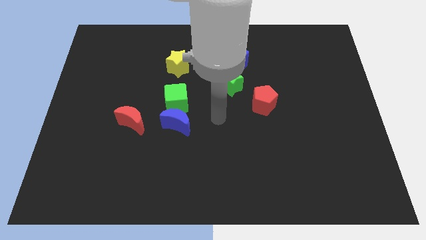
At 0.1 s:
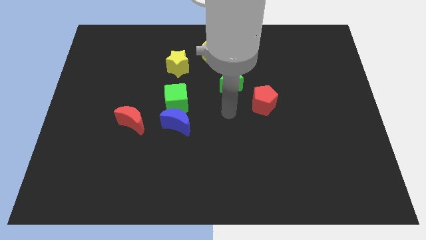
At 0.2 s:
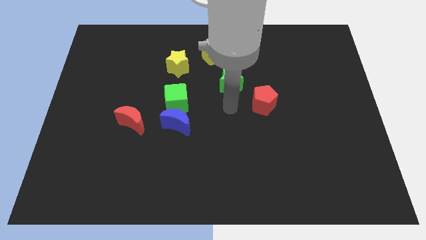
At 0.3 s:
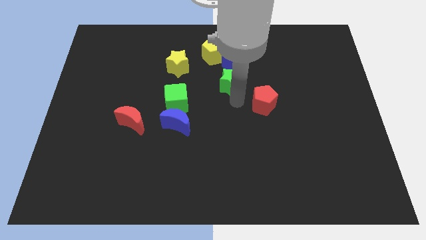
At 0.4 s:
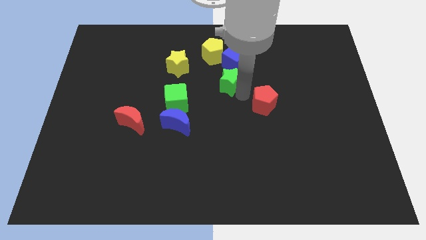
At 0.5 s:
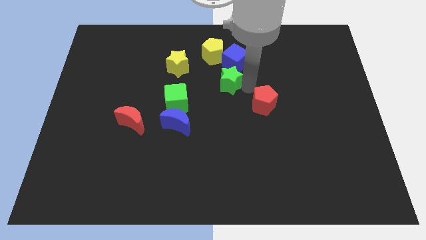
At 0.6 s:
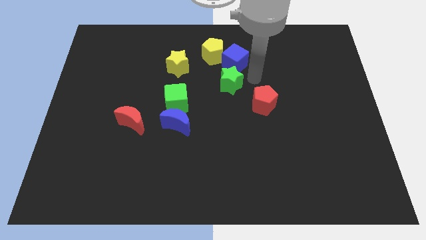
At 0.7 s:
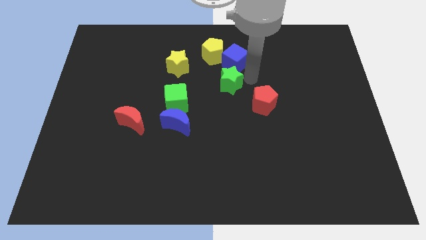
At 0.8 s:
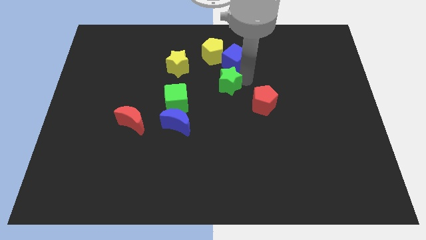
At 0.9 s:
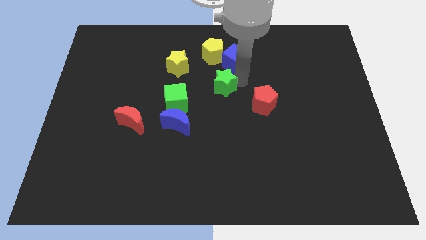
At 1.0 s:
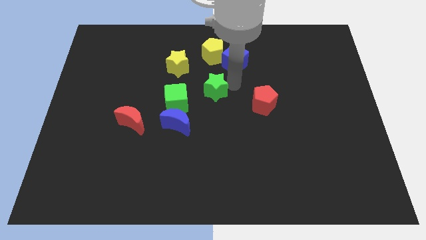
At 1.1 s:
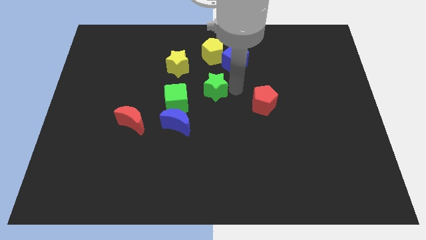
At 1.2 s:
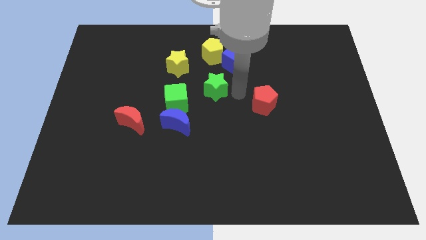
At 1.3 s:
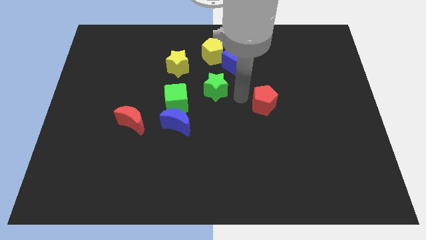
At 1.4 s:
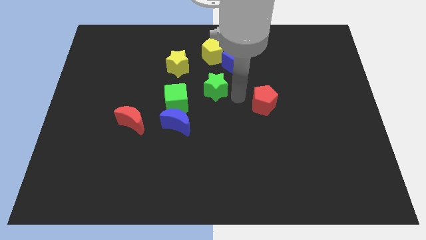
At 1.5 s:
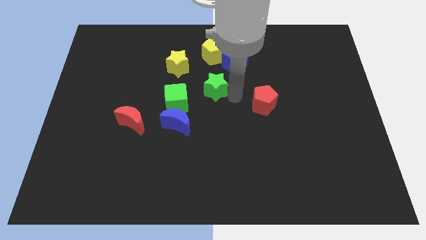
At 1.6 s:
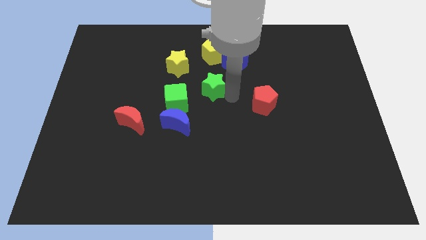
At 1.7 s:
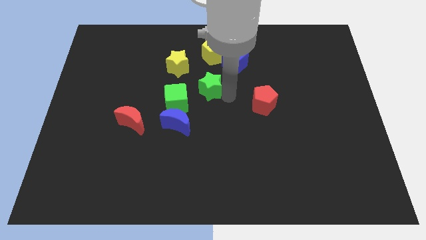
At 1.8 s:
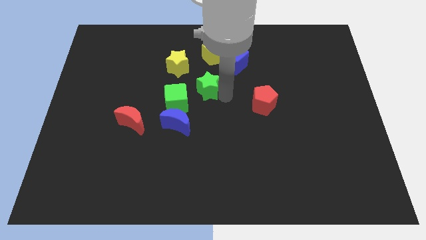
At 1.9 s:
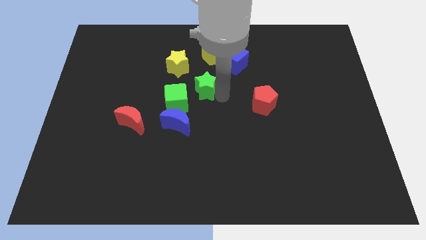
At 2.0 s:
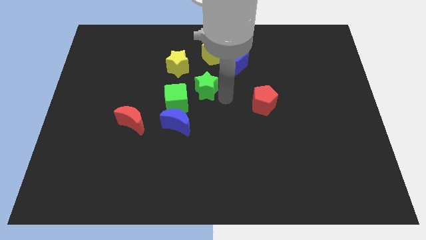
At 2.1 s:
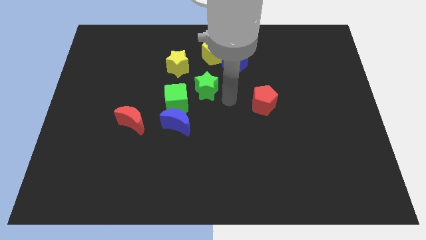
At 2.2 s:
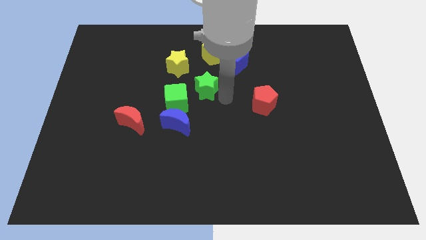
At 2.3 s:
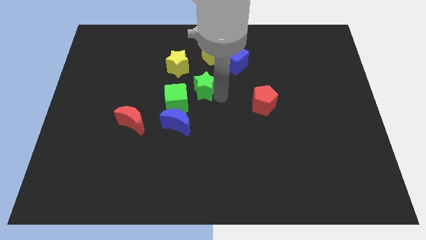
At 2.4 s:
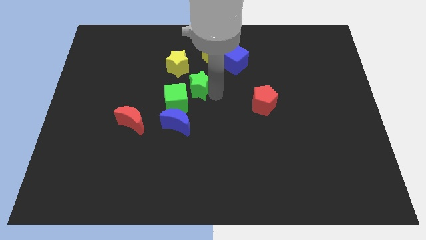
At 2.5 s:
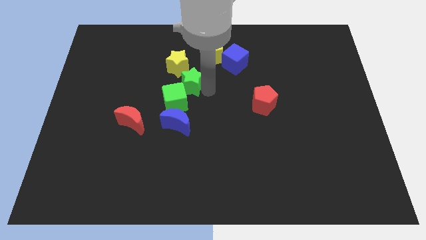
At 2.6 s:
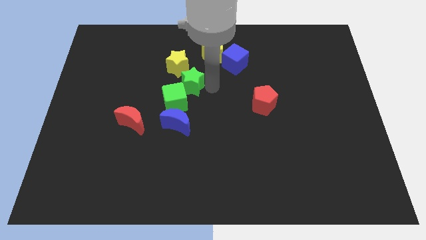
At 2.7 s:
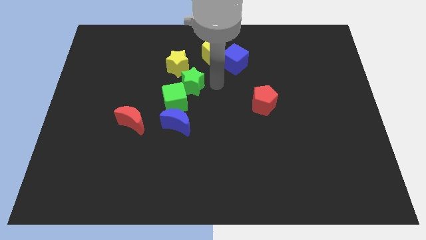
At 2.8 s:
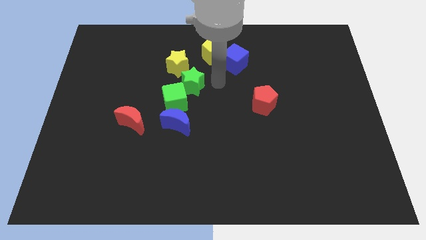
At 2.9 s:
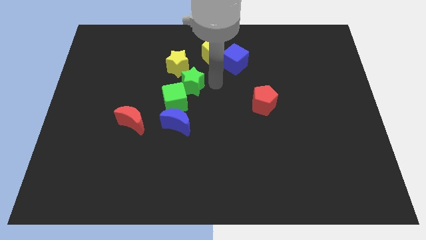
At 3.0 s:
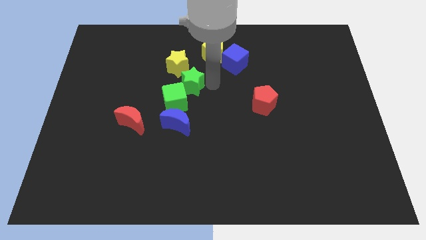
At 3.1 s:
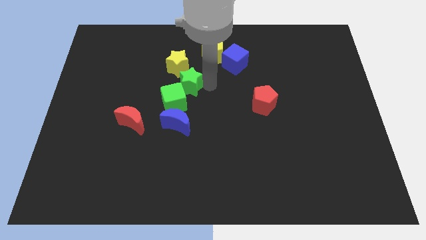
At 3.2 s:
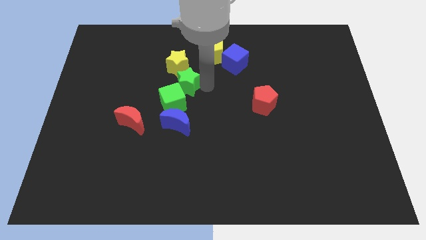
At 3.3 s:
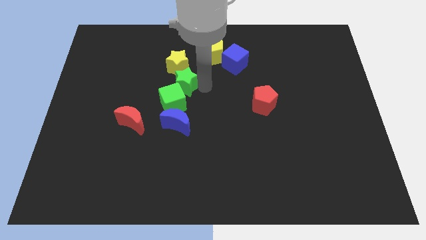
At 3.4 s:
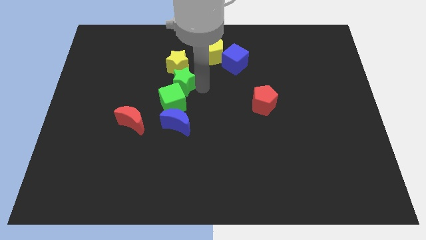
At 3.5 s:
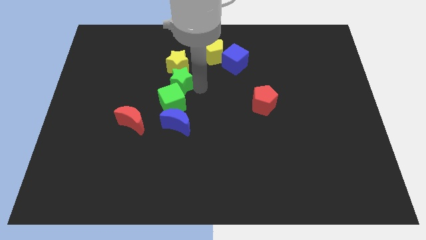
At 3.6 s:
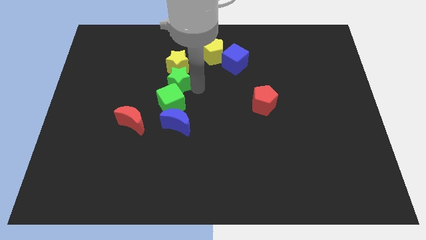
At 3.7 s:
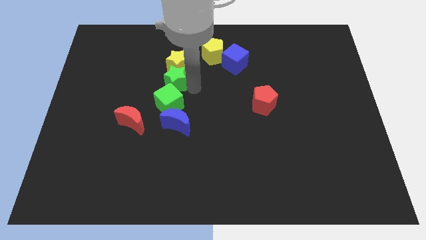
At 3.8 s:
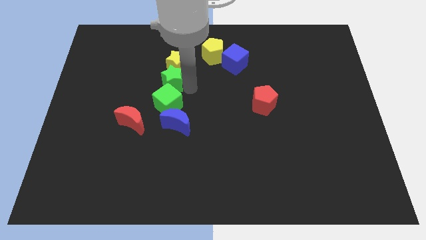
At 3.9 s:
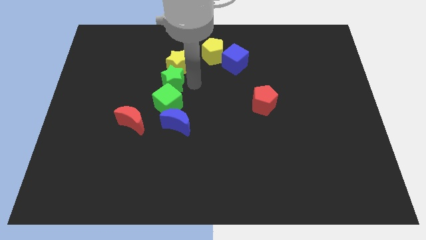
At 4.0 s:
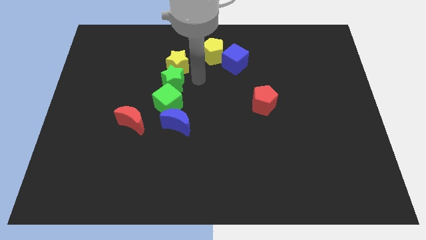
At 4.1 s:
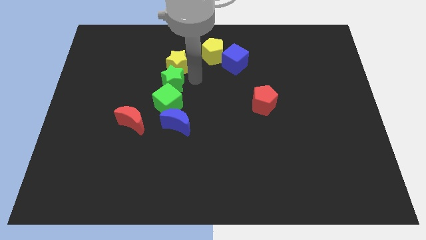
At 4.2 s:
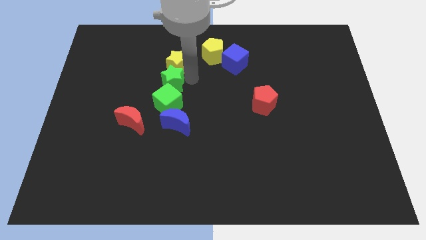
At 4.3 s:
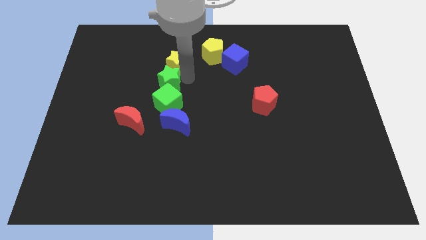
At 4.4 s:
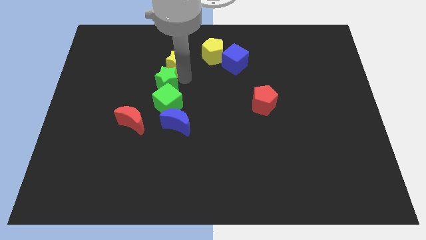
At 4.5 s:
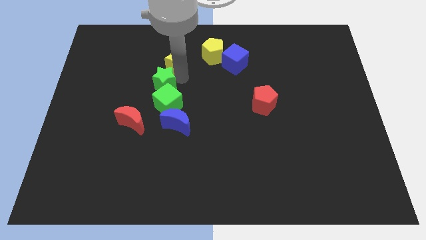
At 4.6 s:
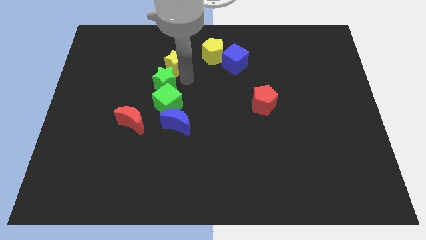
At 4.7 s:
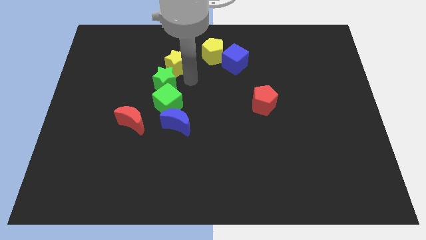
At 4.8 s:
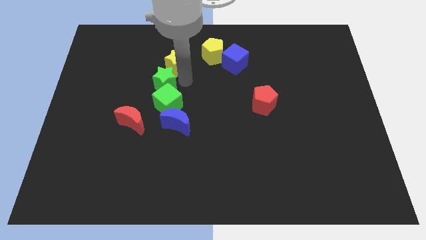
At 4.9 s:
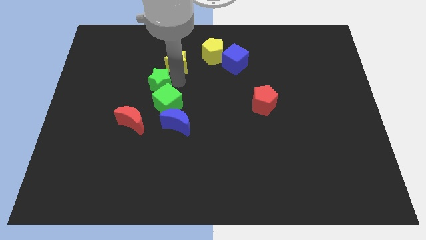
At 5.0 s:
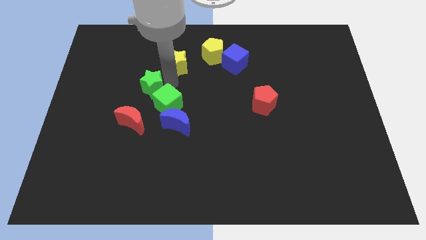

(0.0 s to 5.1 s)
slide the green star to the top side of the red moon

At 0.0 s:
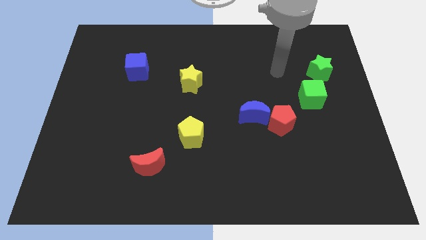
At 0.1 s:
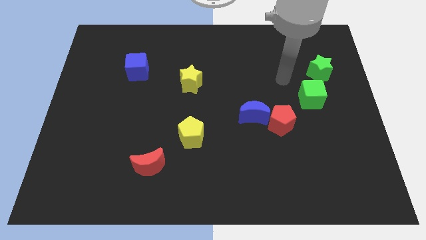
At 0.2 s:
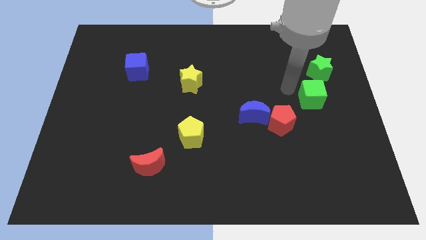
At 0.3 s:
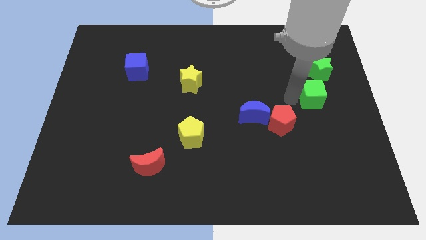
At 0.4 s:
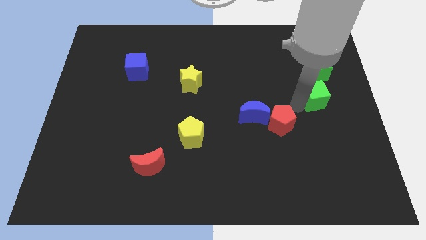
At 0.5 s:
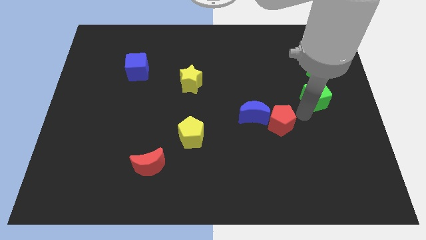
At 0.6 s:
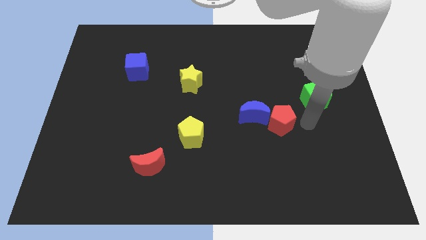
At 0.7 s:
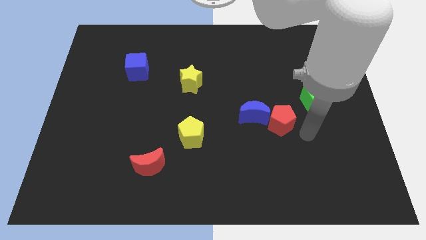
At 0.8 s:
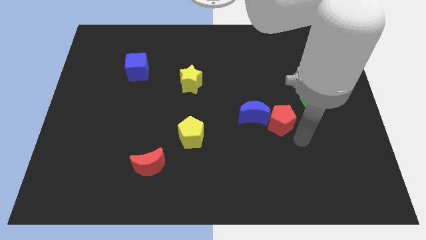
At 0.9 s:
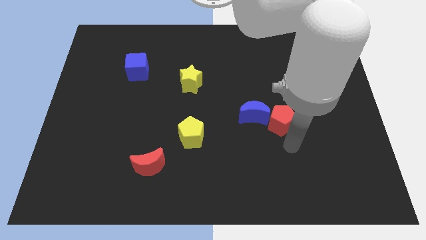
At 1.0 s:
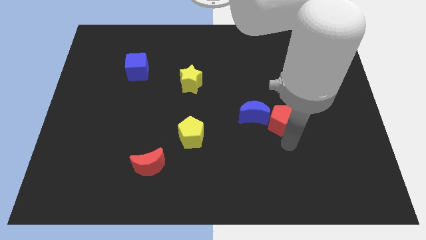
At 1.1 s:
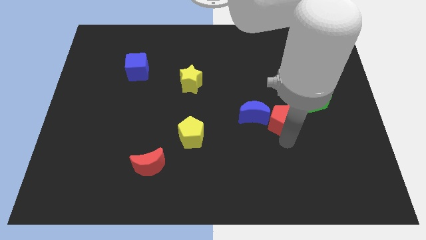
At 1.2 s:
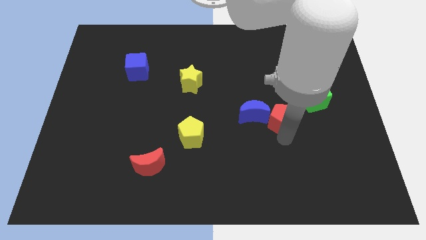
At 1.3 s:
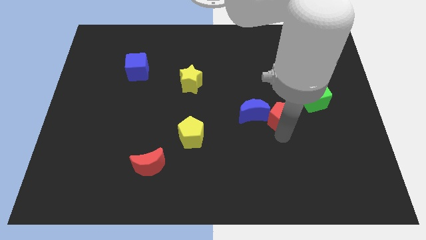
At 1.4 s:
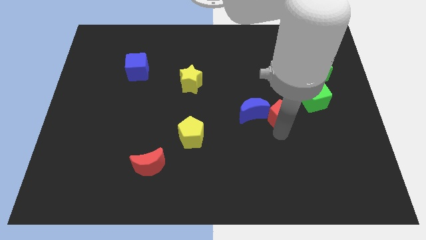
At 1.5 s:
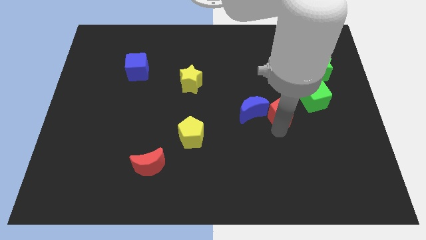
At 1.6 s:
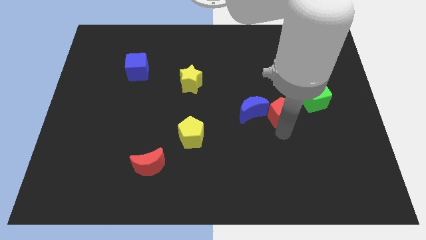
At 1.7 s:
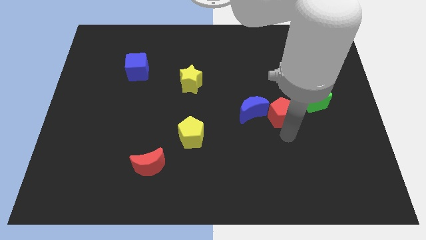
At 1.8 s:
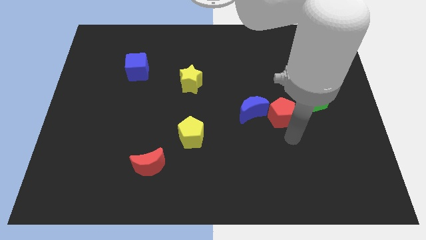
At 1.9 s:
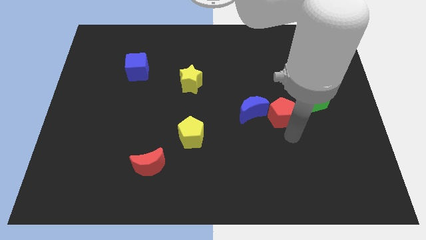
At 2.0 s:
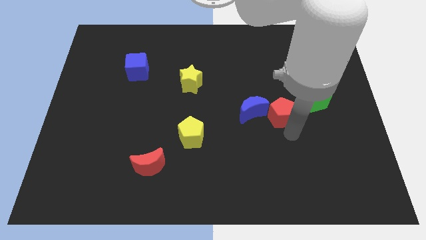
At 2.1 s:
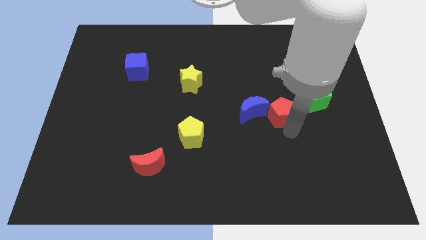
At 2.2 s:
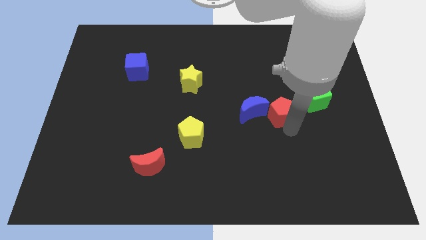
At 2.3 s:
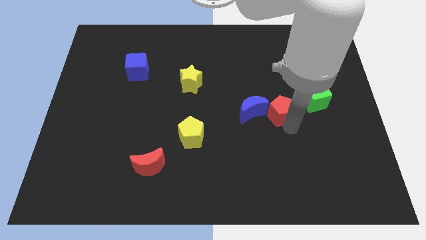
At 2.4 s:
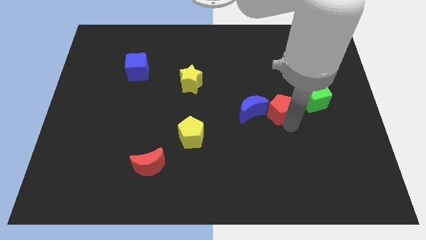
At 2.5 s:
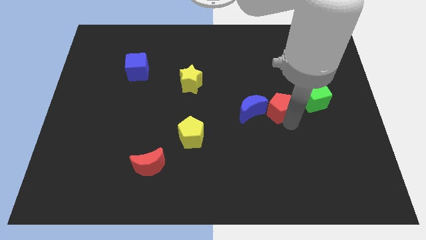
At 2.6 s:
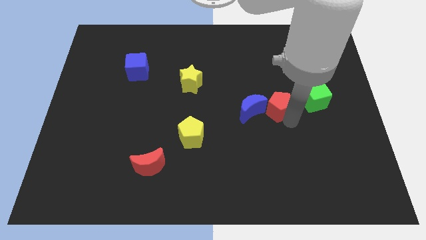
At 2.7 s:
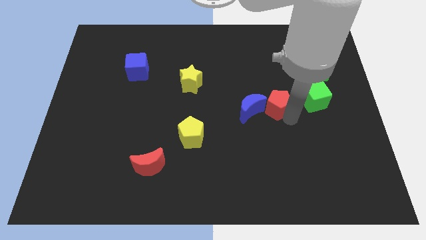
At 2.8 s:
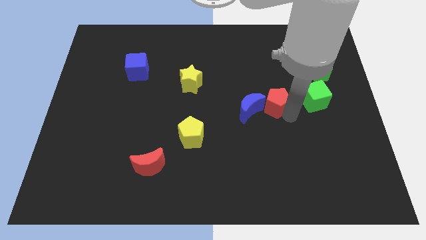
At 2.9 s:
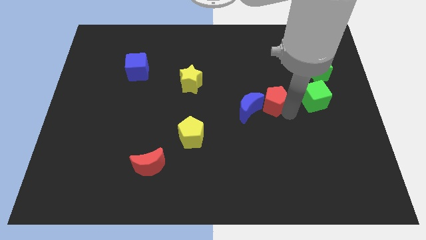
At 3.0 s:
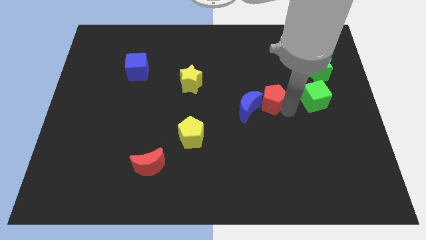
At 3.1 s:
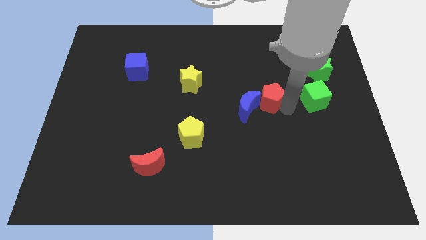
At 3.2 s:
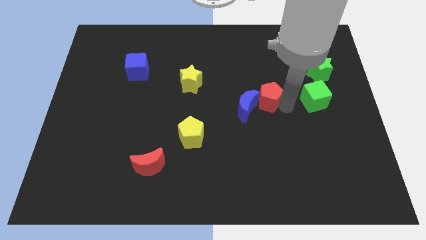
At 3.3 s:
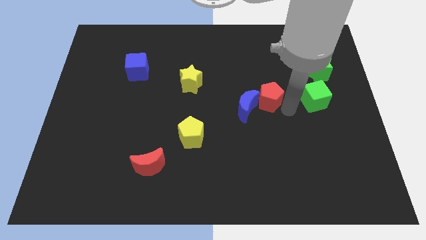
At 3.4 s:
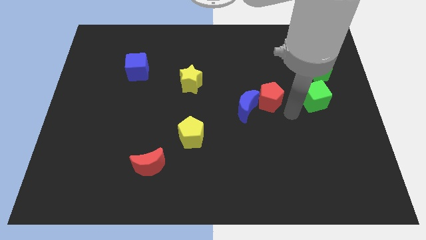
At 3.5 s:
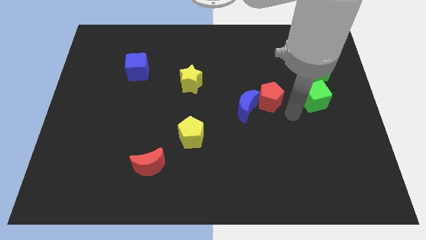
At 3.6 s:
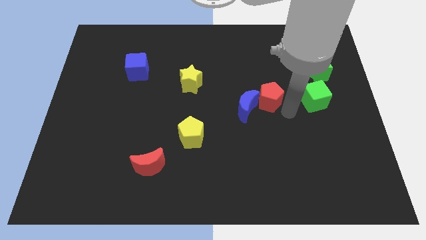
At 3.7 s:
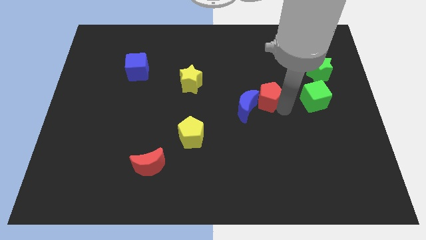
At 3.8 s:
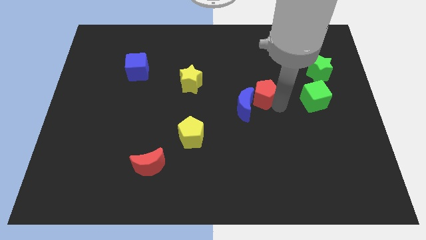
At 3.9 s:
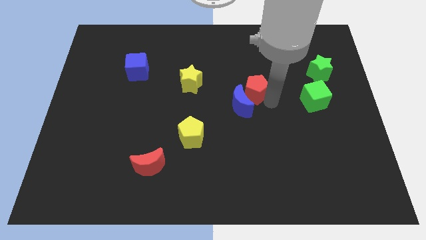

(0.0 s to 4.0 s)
move the red pentagon above the blue moon
